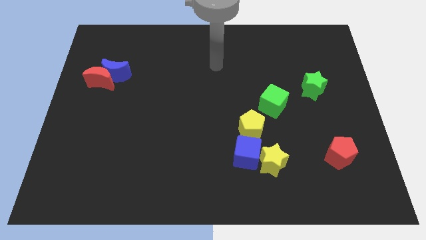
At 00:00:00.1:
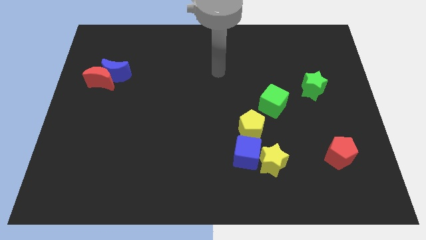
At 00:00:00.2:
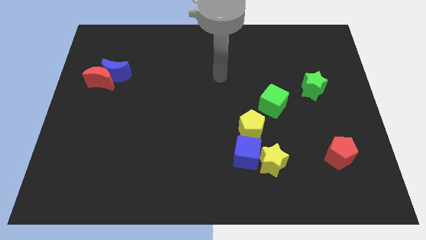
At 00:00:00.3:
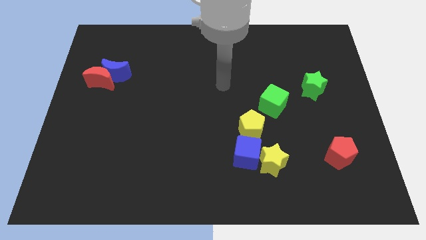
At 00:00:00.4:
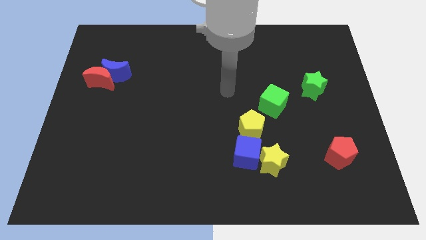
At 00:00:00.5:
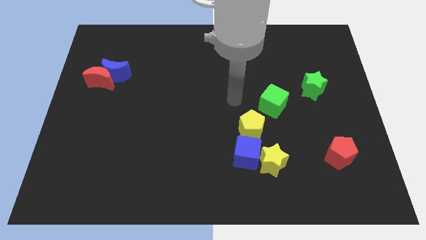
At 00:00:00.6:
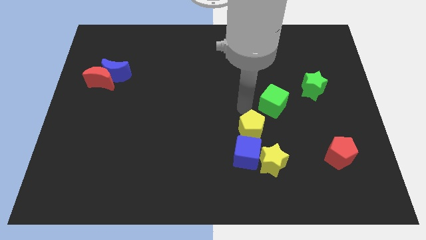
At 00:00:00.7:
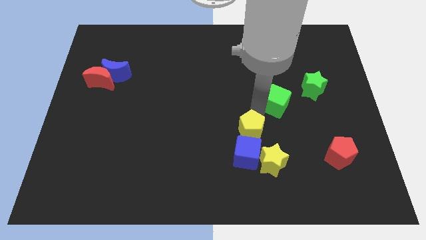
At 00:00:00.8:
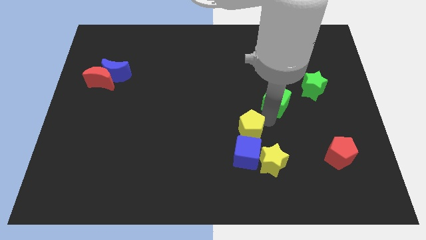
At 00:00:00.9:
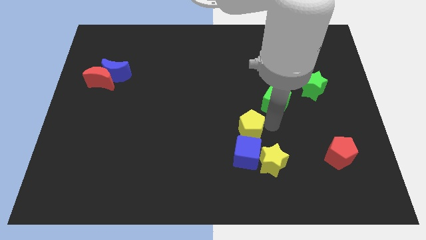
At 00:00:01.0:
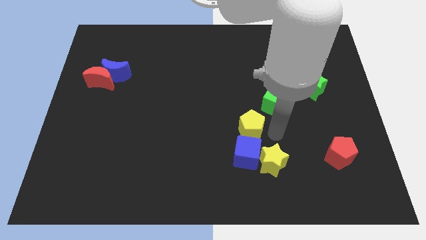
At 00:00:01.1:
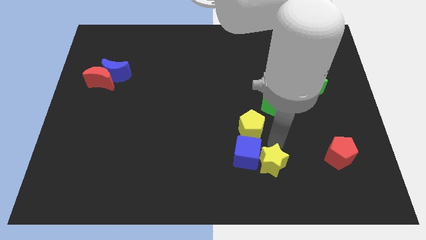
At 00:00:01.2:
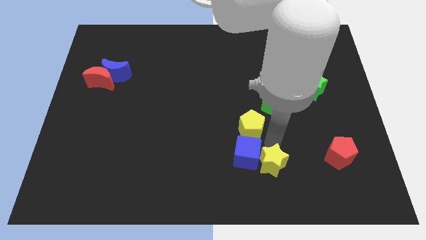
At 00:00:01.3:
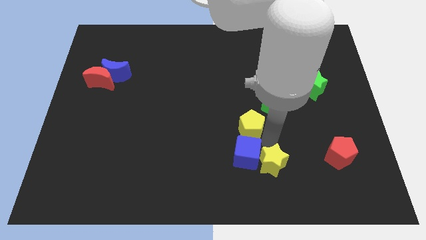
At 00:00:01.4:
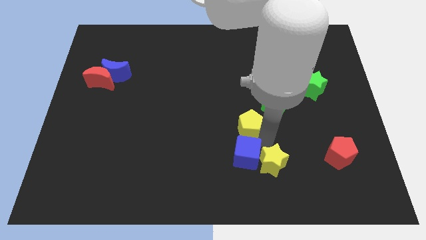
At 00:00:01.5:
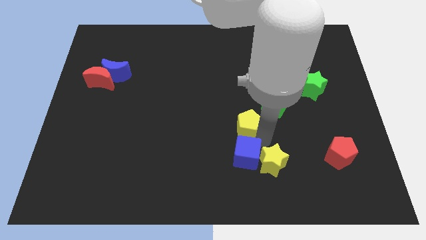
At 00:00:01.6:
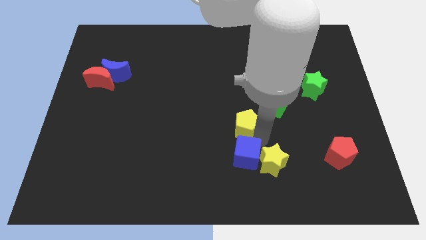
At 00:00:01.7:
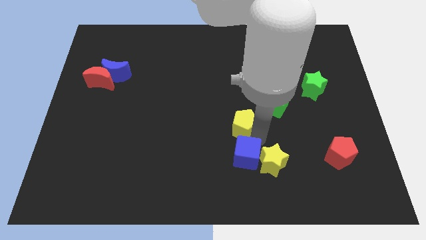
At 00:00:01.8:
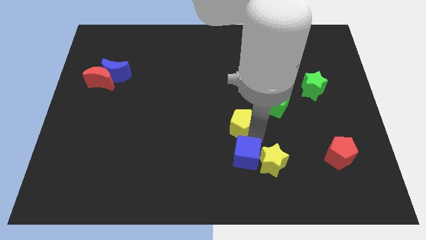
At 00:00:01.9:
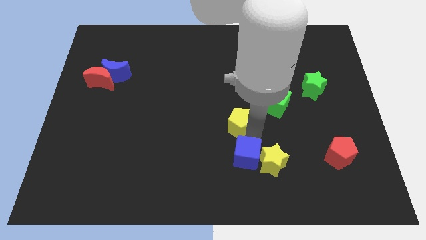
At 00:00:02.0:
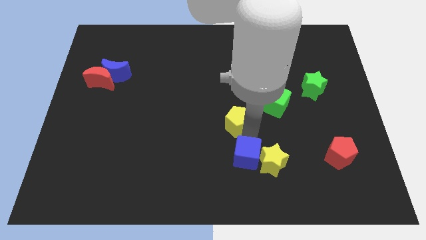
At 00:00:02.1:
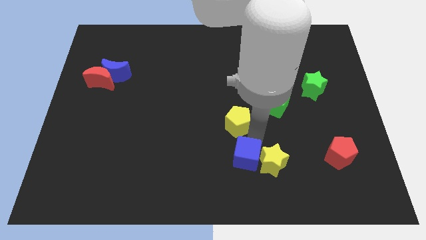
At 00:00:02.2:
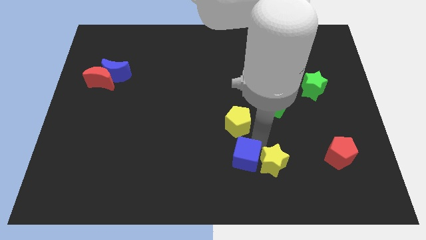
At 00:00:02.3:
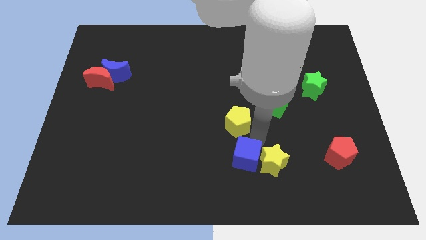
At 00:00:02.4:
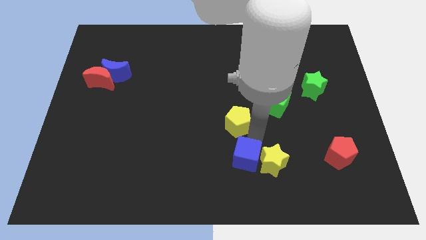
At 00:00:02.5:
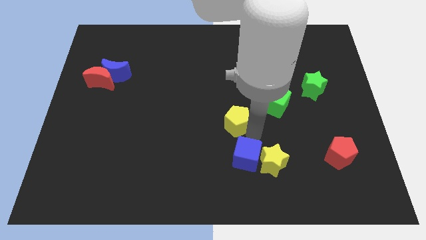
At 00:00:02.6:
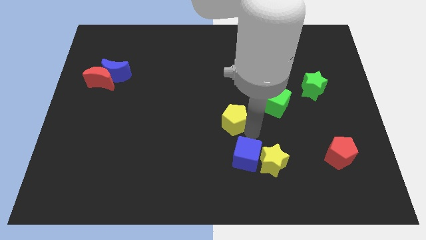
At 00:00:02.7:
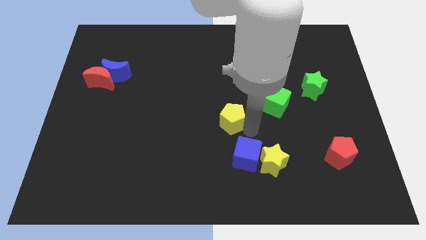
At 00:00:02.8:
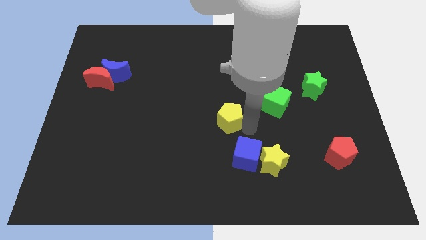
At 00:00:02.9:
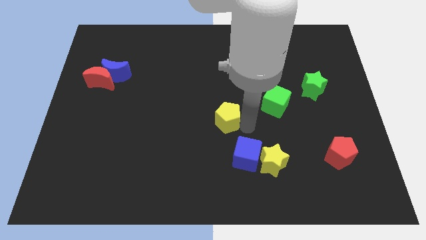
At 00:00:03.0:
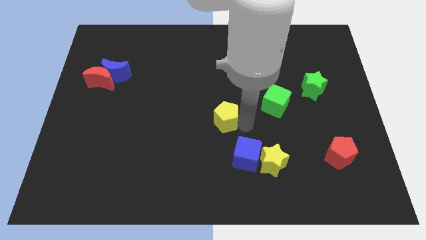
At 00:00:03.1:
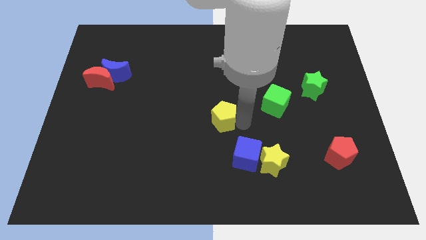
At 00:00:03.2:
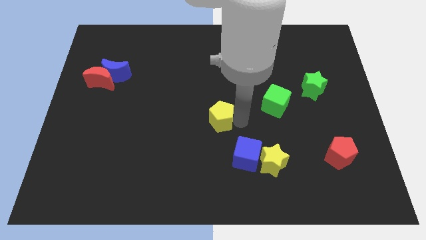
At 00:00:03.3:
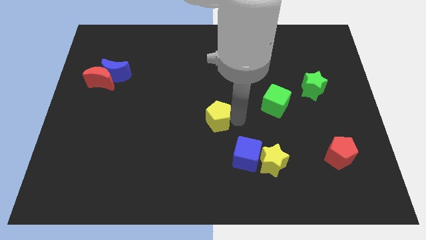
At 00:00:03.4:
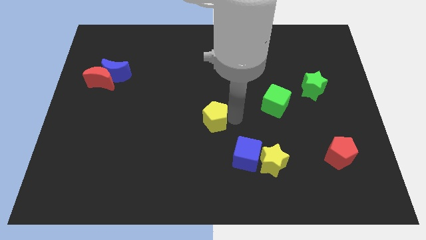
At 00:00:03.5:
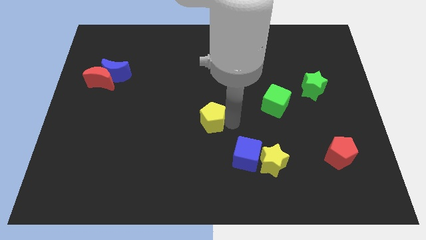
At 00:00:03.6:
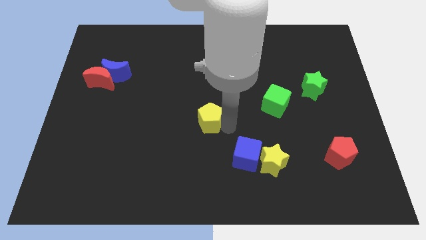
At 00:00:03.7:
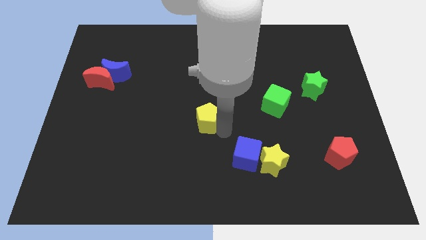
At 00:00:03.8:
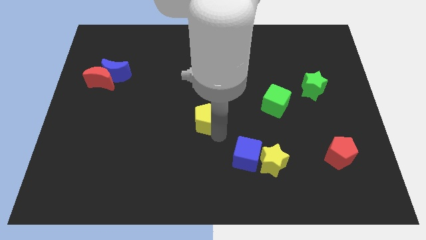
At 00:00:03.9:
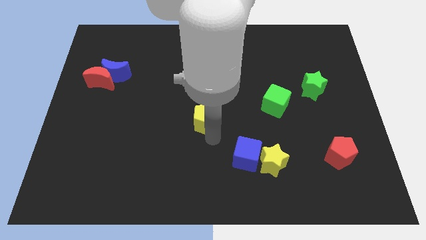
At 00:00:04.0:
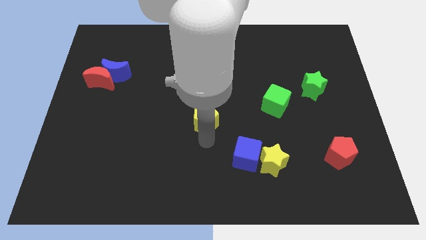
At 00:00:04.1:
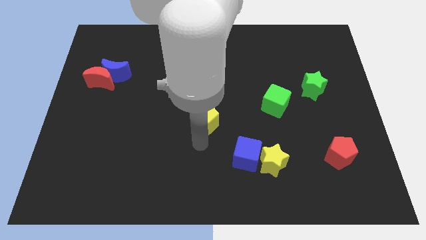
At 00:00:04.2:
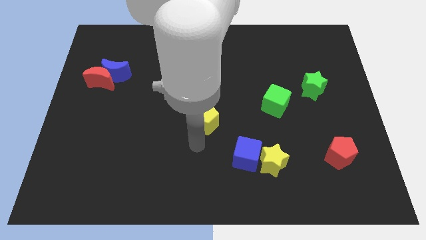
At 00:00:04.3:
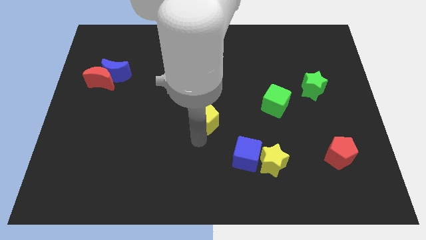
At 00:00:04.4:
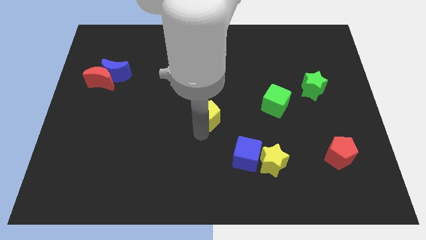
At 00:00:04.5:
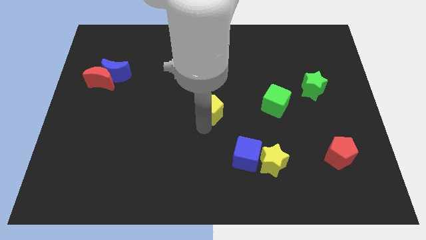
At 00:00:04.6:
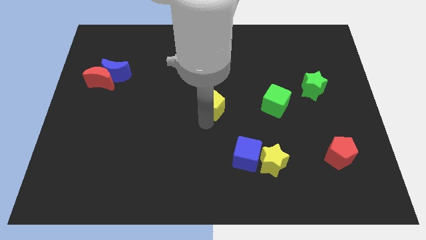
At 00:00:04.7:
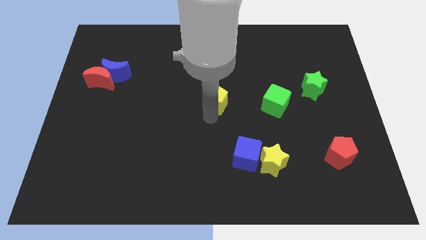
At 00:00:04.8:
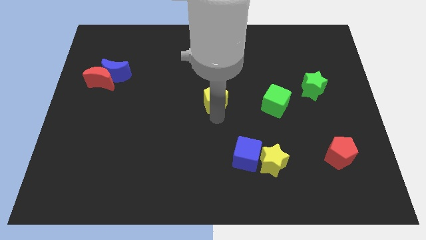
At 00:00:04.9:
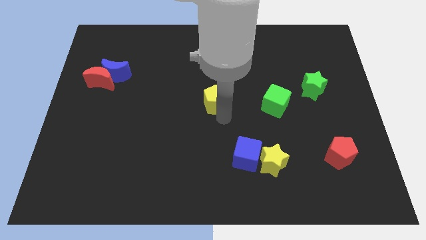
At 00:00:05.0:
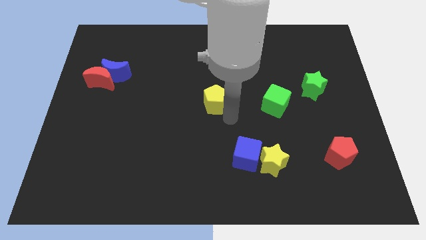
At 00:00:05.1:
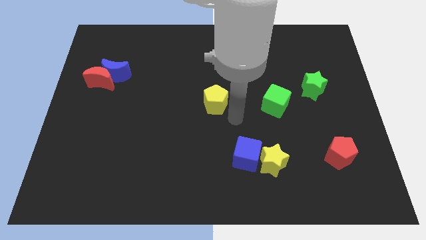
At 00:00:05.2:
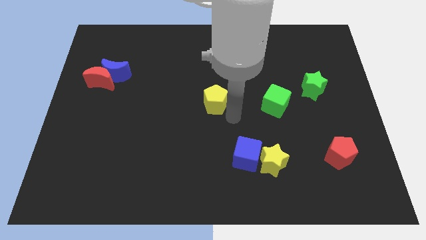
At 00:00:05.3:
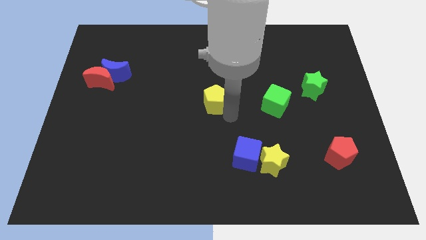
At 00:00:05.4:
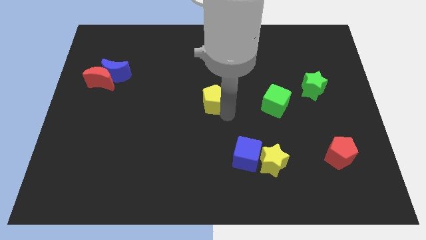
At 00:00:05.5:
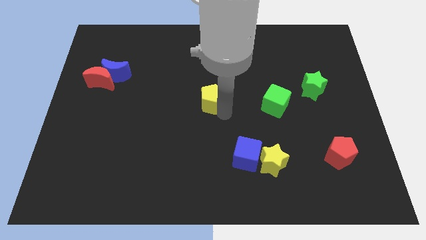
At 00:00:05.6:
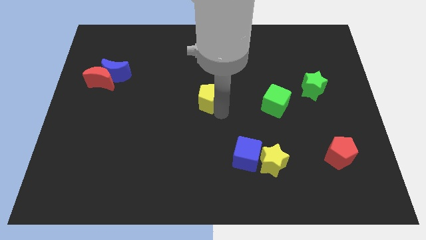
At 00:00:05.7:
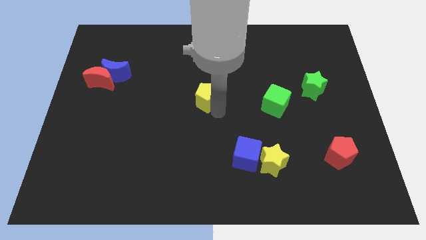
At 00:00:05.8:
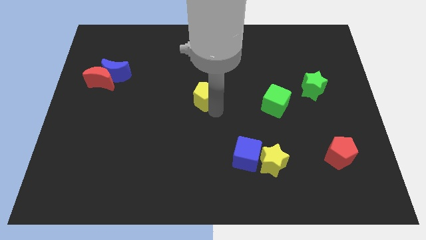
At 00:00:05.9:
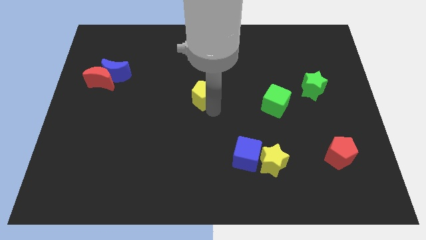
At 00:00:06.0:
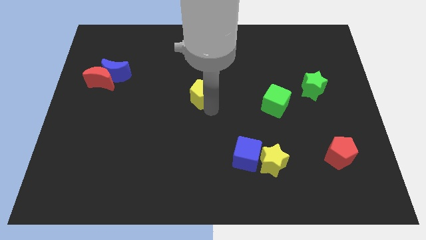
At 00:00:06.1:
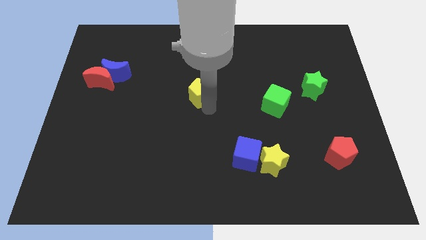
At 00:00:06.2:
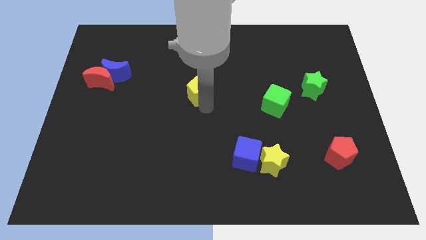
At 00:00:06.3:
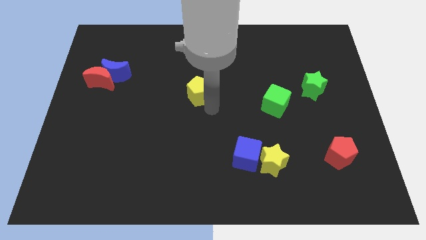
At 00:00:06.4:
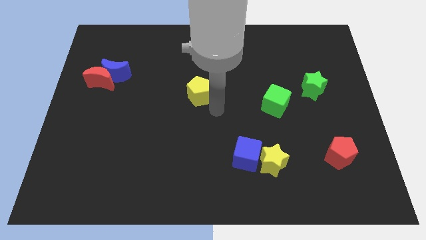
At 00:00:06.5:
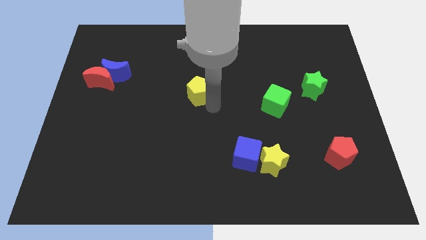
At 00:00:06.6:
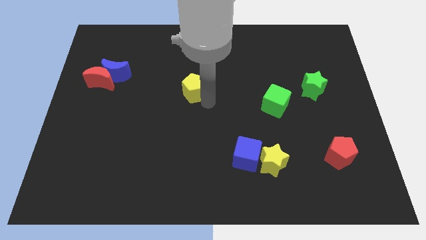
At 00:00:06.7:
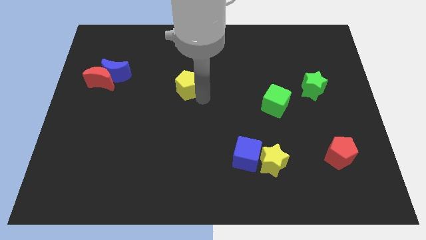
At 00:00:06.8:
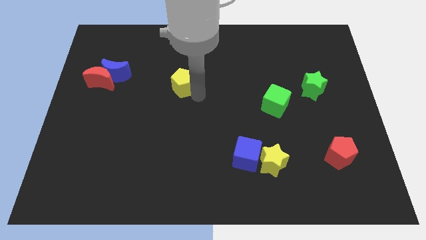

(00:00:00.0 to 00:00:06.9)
move the yellow pentagon diagonally upwards and to the left

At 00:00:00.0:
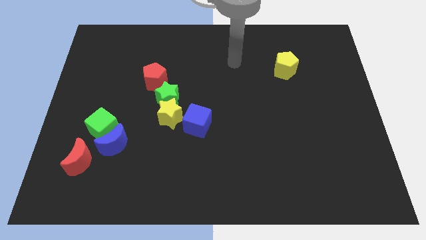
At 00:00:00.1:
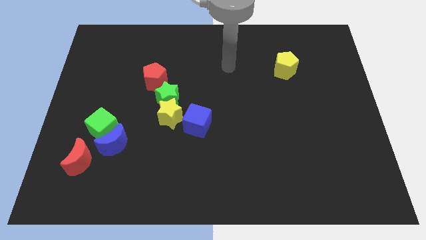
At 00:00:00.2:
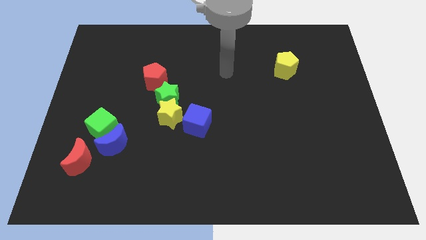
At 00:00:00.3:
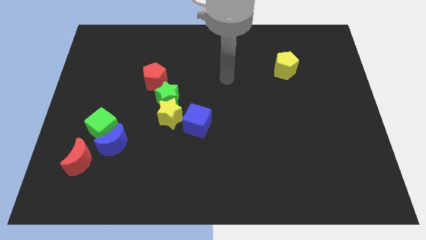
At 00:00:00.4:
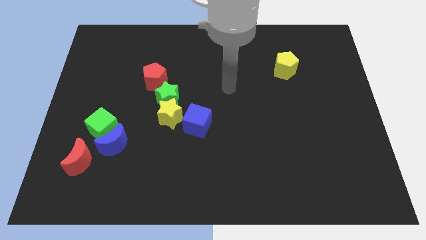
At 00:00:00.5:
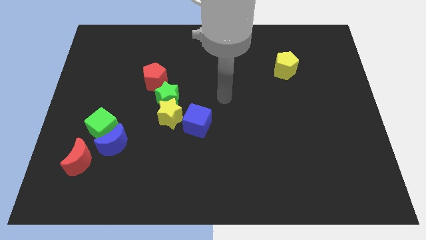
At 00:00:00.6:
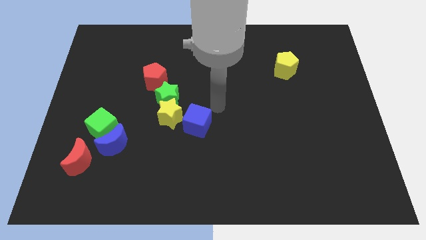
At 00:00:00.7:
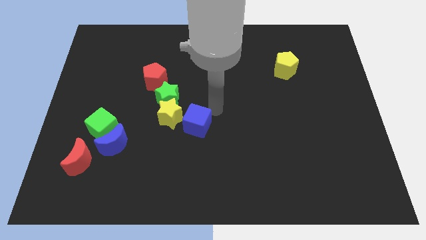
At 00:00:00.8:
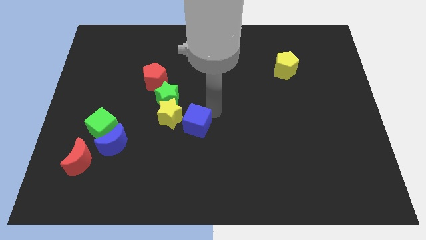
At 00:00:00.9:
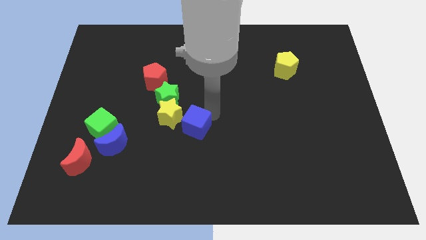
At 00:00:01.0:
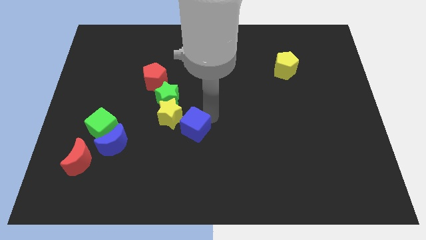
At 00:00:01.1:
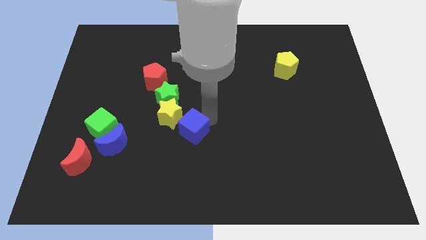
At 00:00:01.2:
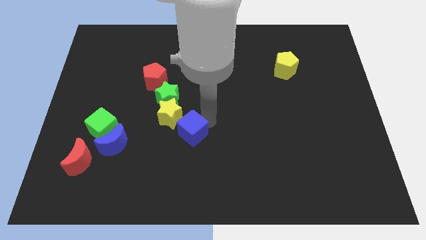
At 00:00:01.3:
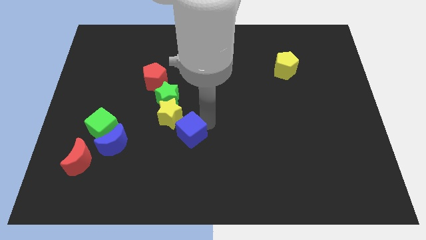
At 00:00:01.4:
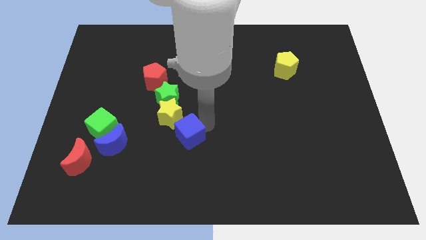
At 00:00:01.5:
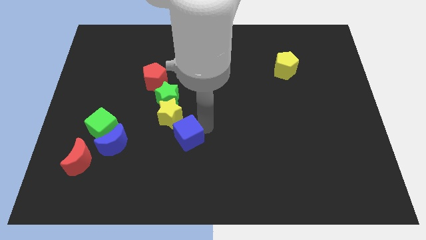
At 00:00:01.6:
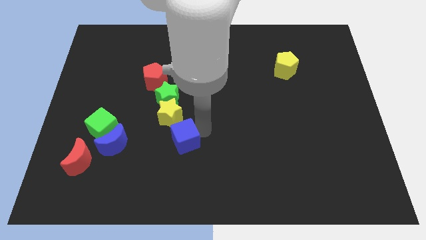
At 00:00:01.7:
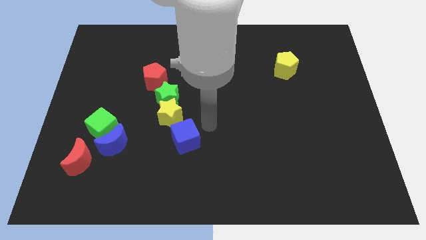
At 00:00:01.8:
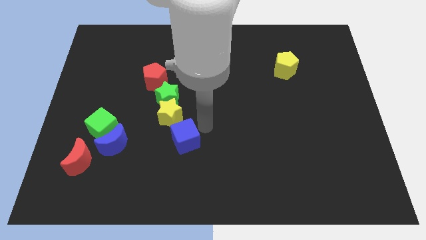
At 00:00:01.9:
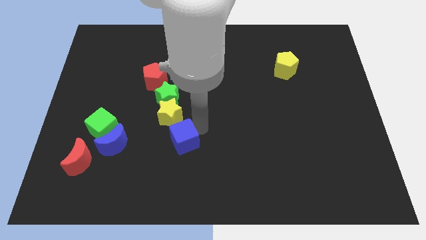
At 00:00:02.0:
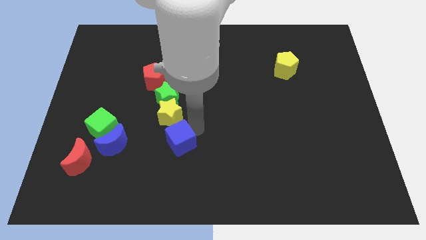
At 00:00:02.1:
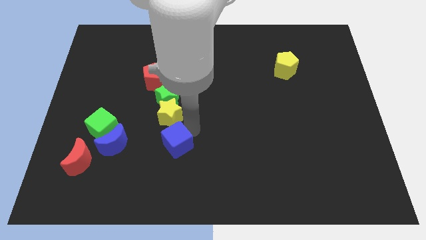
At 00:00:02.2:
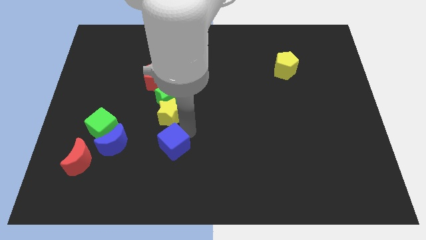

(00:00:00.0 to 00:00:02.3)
slightly slide the blue cube downwards and to the left diagonally
